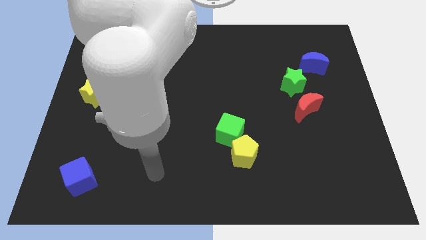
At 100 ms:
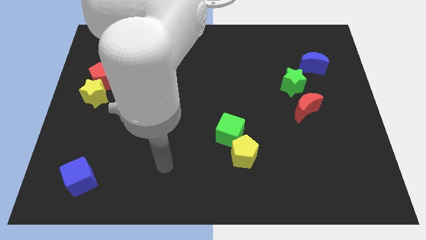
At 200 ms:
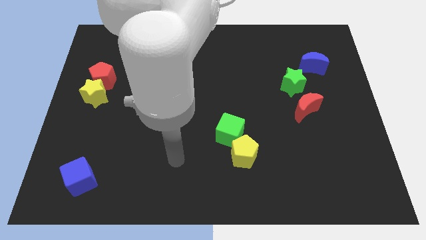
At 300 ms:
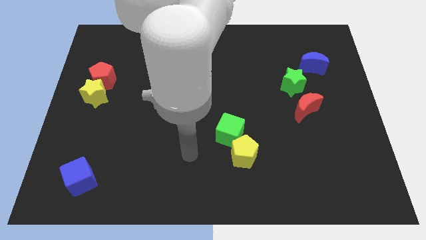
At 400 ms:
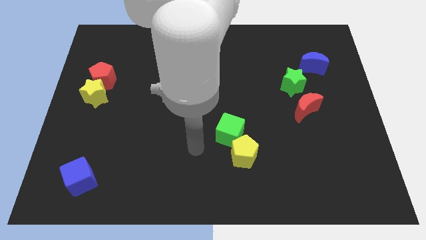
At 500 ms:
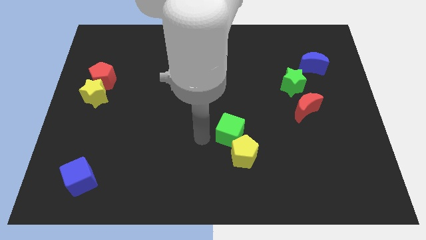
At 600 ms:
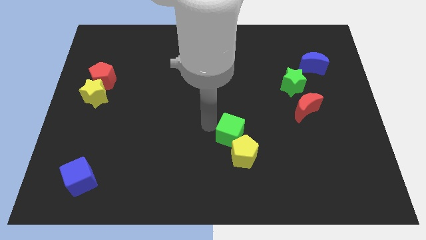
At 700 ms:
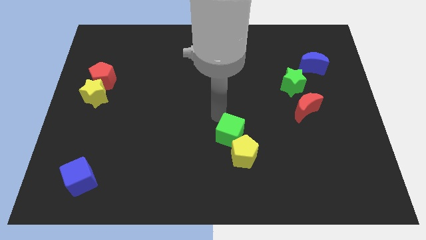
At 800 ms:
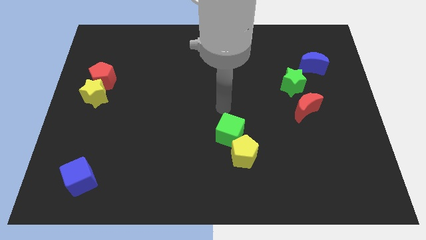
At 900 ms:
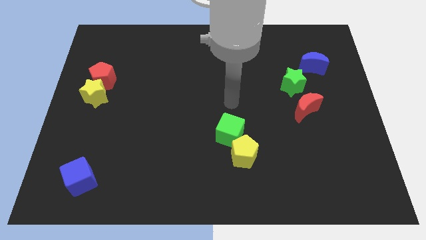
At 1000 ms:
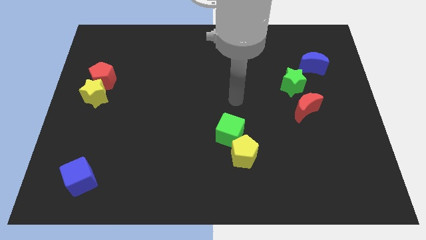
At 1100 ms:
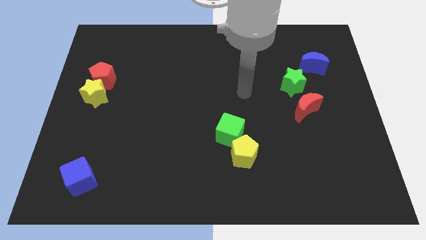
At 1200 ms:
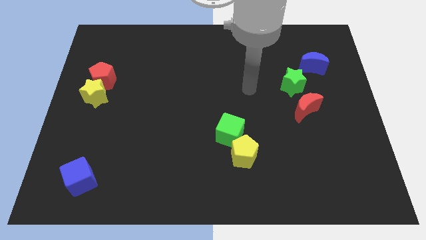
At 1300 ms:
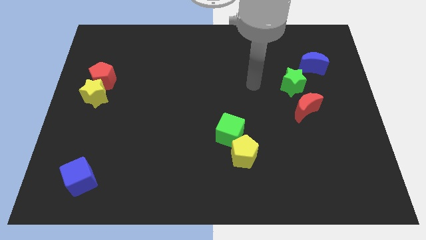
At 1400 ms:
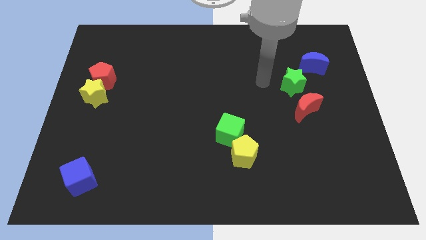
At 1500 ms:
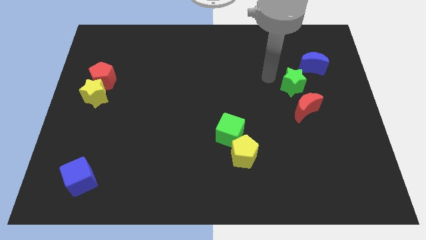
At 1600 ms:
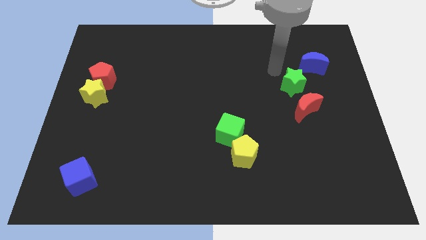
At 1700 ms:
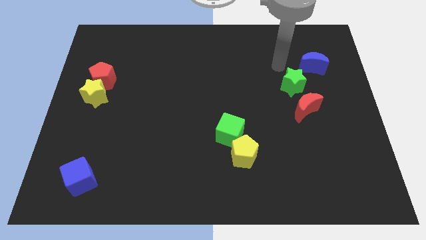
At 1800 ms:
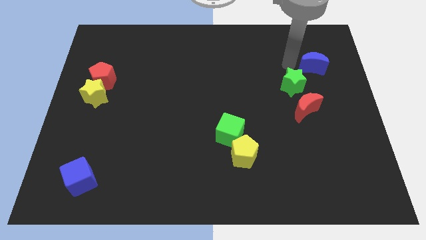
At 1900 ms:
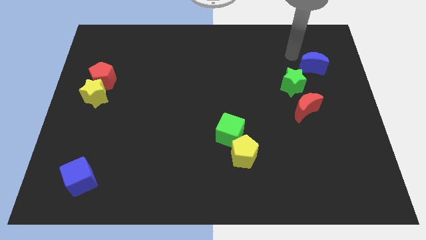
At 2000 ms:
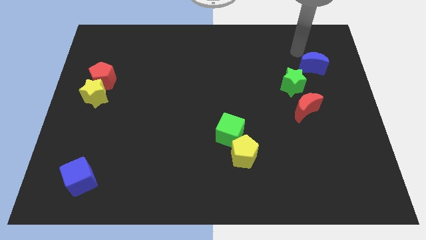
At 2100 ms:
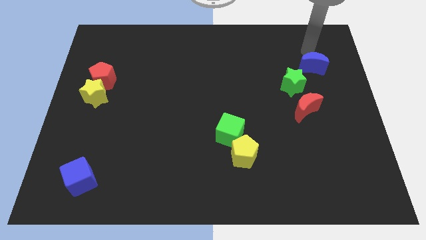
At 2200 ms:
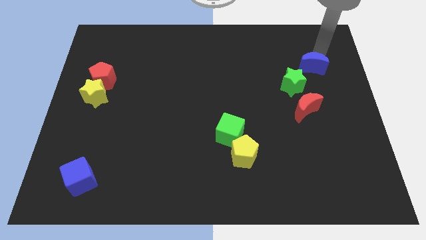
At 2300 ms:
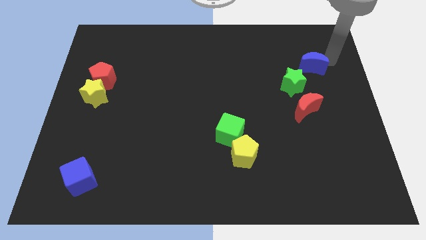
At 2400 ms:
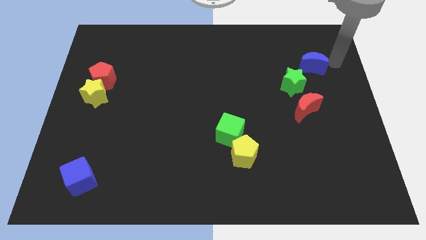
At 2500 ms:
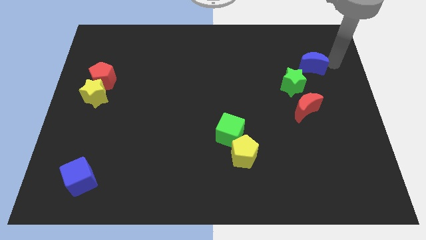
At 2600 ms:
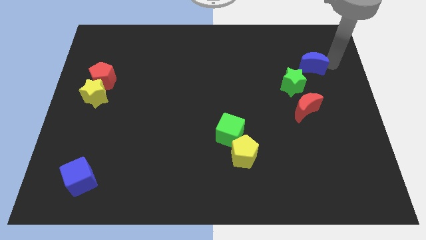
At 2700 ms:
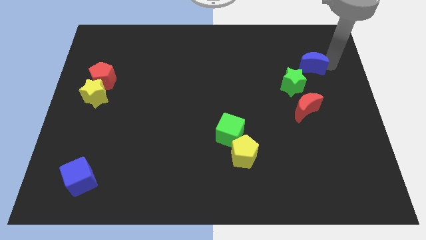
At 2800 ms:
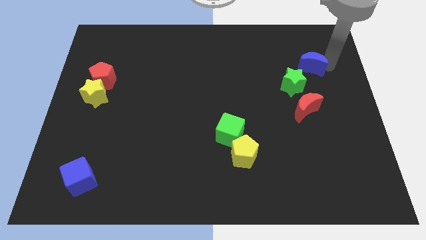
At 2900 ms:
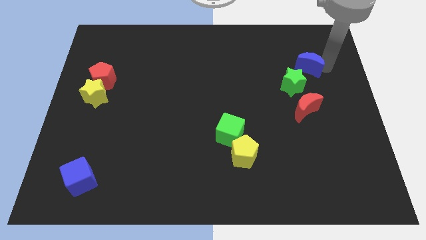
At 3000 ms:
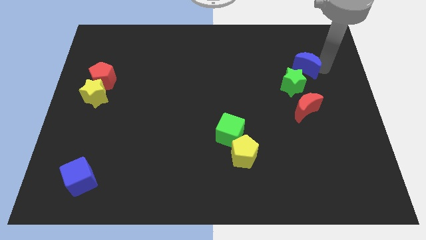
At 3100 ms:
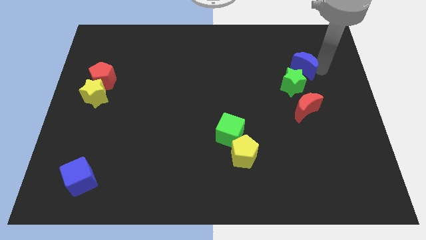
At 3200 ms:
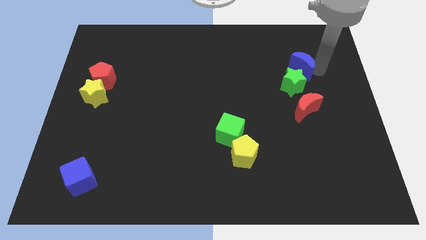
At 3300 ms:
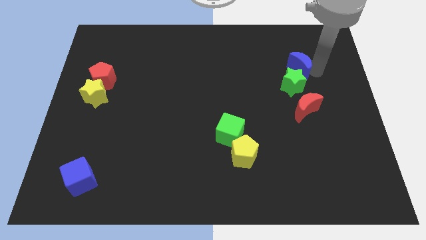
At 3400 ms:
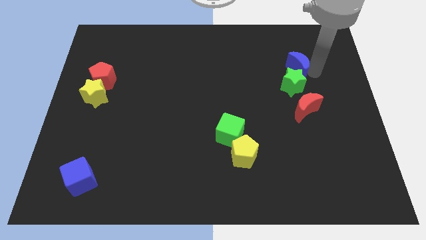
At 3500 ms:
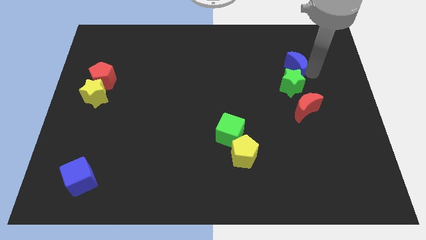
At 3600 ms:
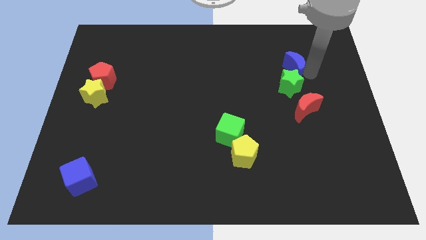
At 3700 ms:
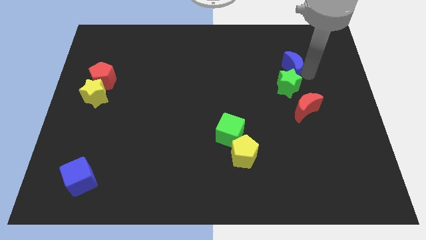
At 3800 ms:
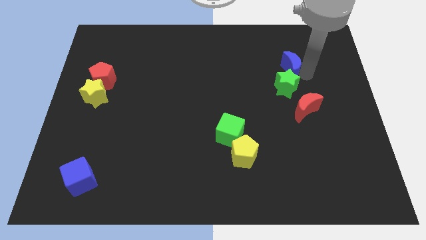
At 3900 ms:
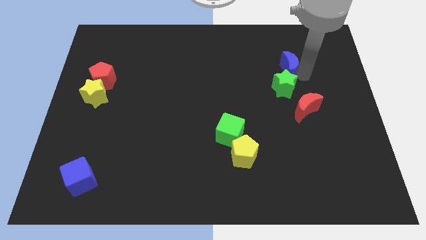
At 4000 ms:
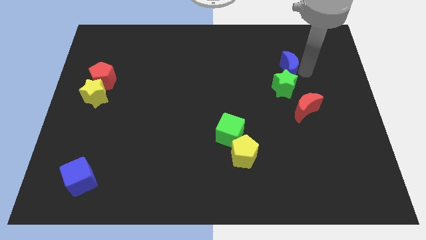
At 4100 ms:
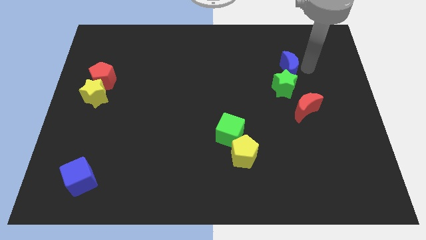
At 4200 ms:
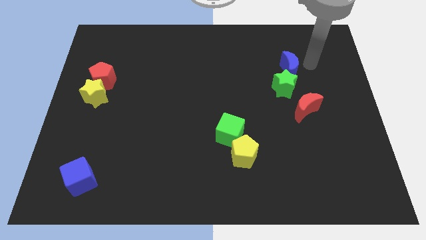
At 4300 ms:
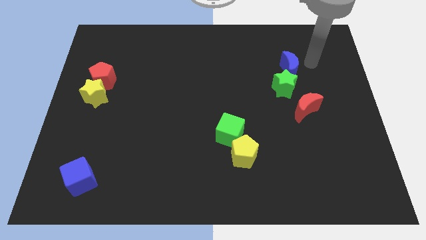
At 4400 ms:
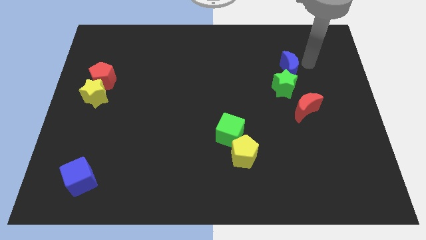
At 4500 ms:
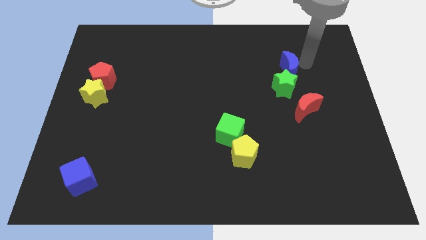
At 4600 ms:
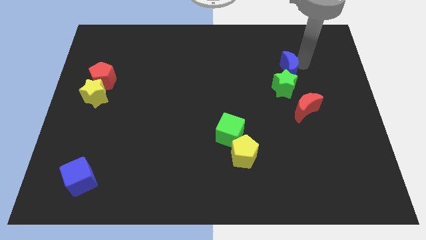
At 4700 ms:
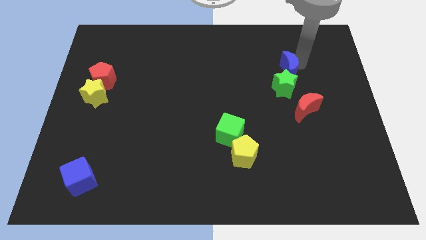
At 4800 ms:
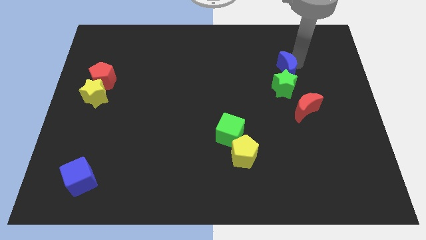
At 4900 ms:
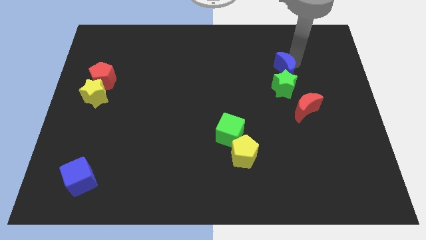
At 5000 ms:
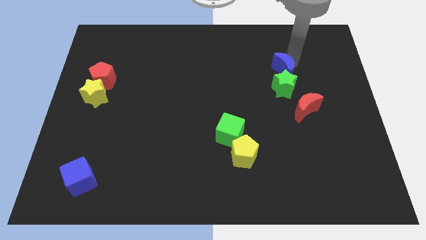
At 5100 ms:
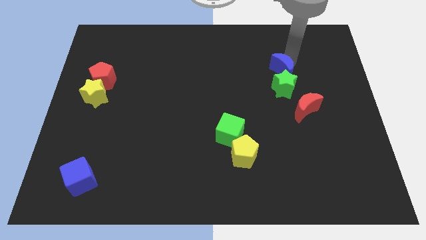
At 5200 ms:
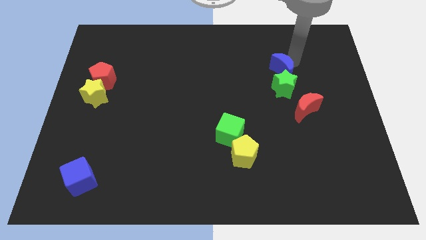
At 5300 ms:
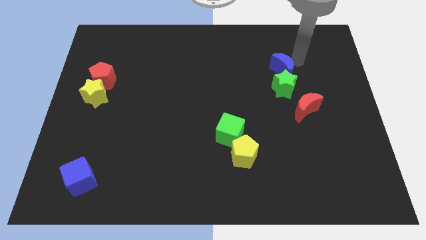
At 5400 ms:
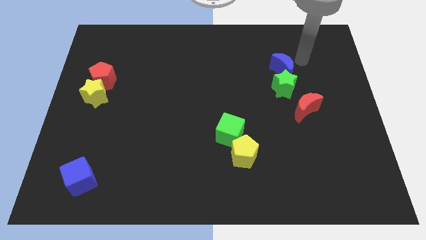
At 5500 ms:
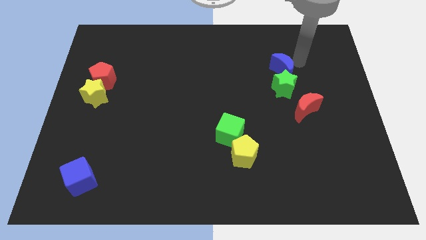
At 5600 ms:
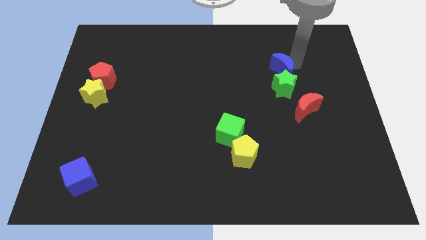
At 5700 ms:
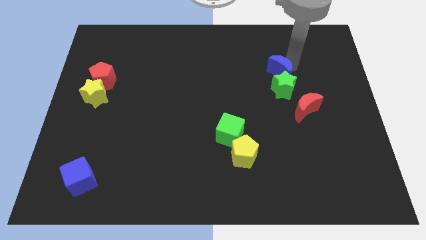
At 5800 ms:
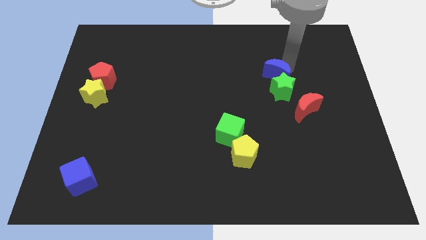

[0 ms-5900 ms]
move the blue moon down and to the left diagonally slightly

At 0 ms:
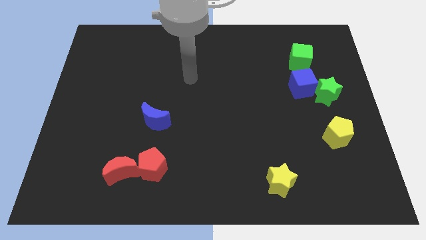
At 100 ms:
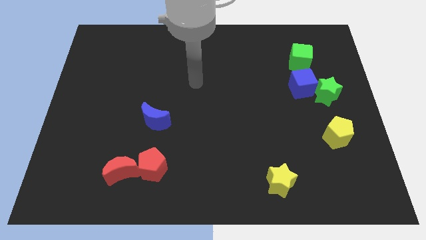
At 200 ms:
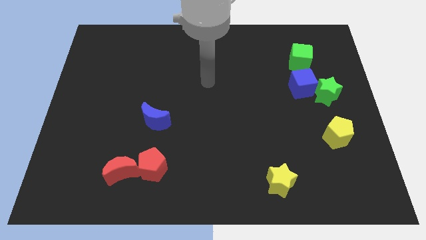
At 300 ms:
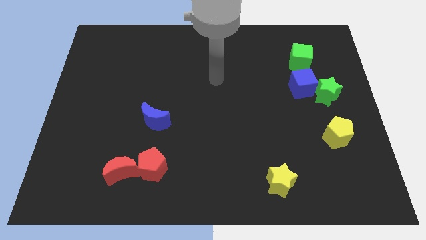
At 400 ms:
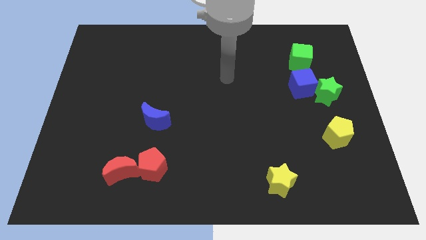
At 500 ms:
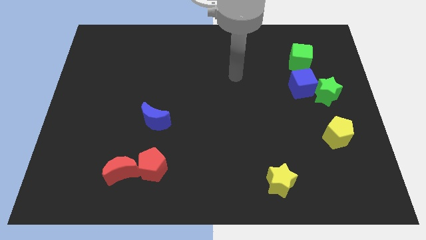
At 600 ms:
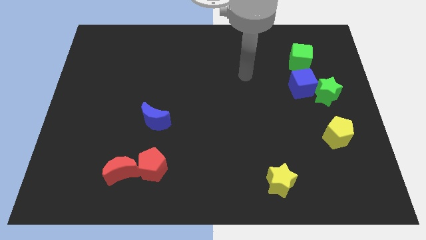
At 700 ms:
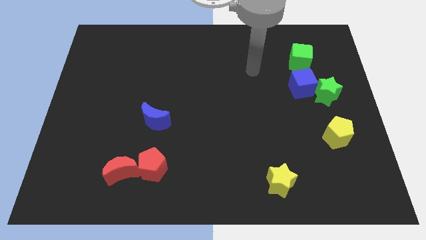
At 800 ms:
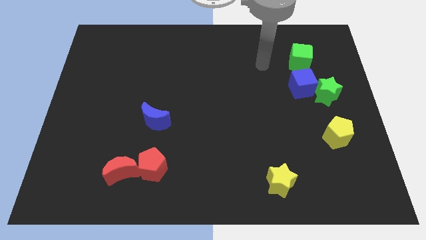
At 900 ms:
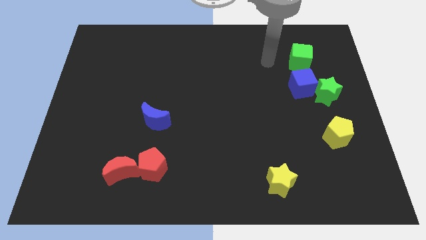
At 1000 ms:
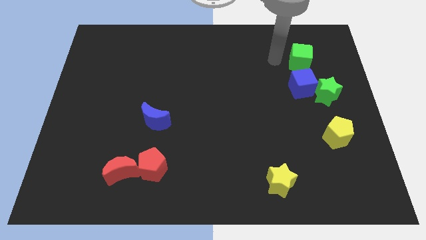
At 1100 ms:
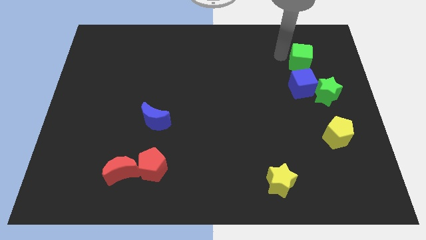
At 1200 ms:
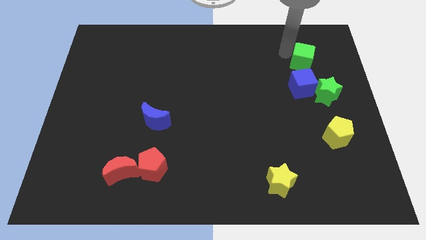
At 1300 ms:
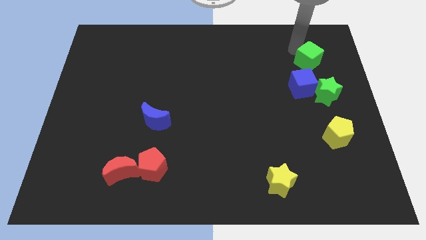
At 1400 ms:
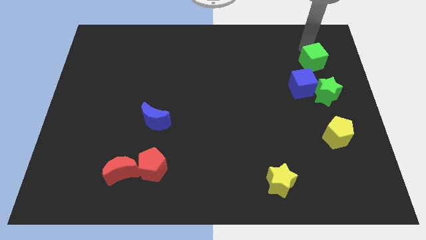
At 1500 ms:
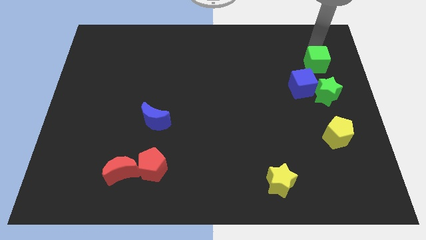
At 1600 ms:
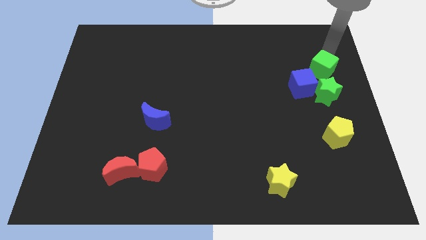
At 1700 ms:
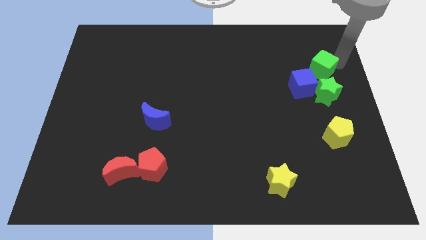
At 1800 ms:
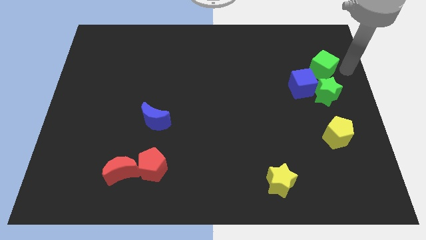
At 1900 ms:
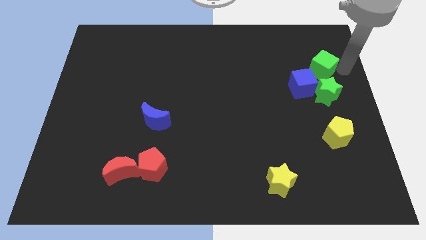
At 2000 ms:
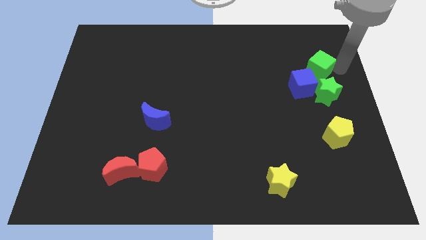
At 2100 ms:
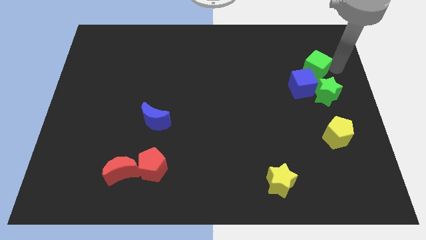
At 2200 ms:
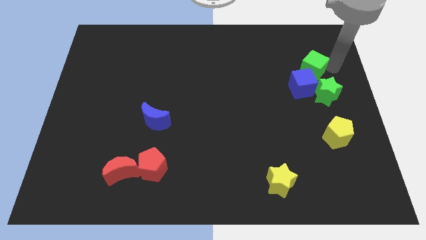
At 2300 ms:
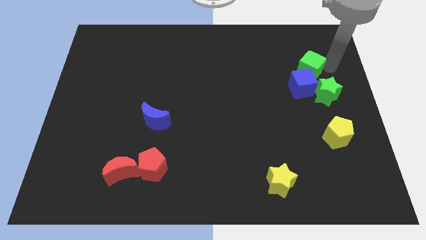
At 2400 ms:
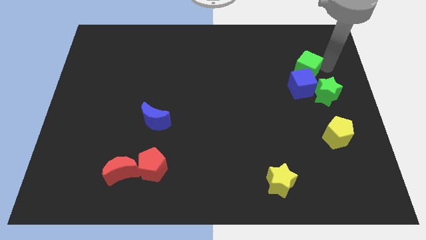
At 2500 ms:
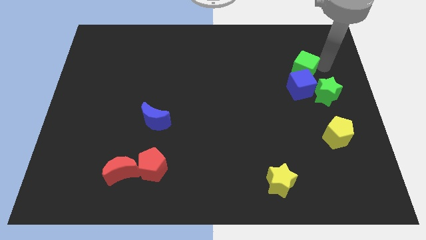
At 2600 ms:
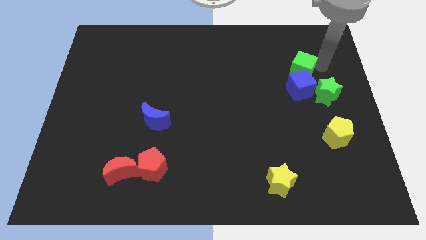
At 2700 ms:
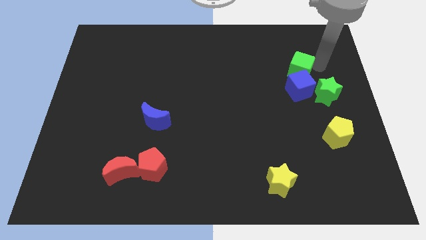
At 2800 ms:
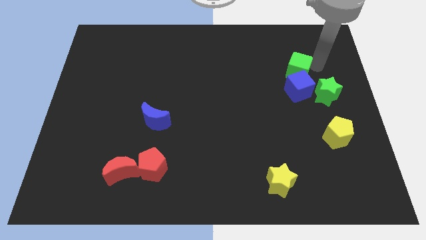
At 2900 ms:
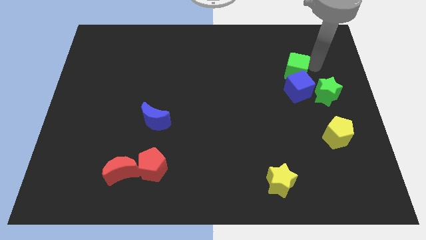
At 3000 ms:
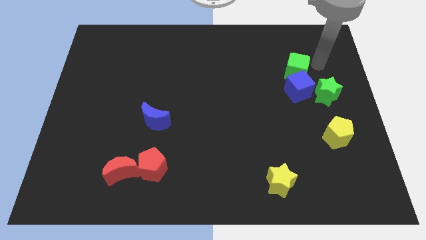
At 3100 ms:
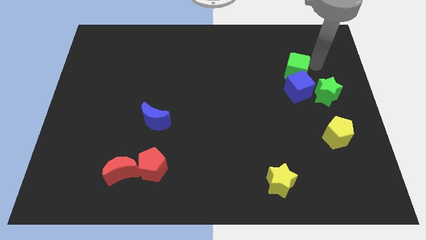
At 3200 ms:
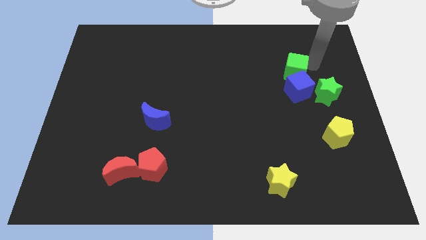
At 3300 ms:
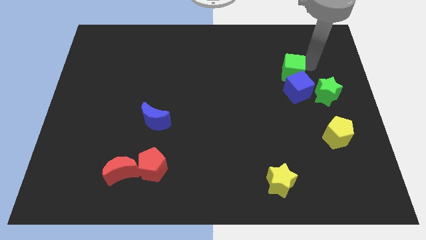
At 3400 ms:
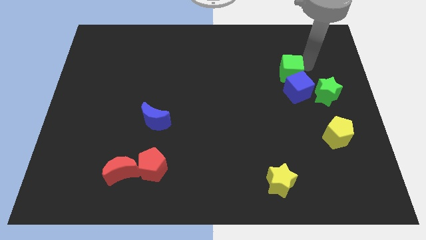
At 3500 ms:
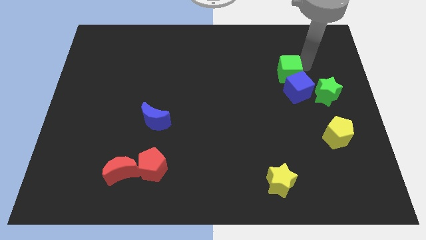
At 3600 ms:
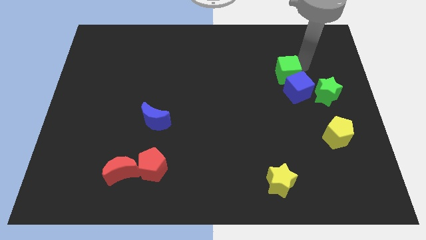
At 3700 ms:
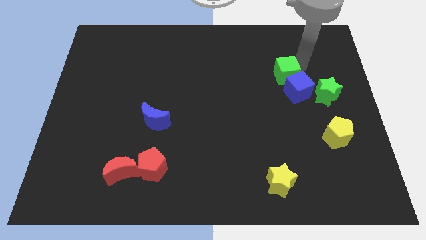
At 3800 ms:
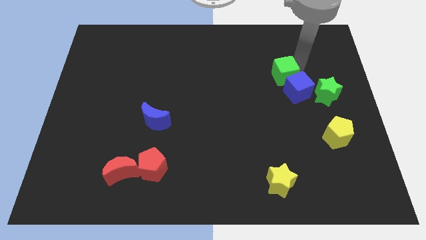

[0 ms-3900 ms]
move the green cube a bit downwards and then left
